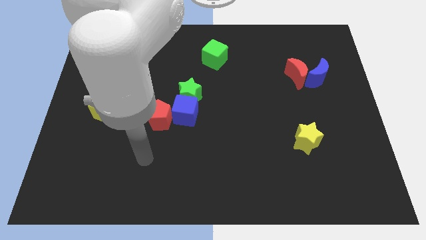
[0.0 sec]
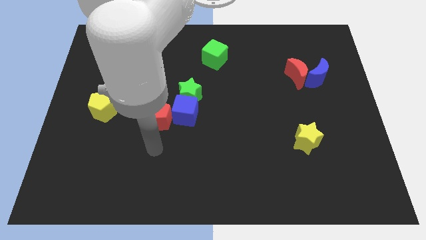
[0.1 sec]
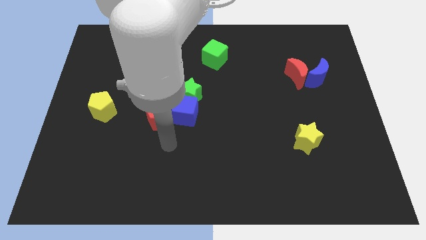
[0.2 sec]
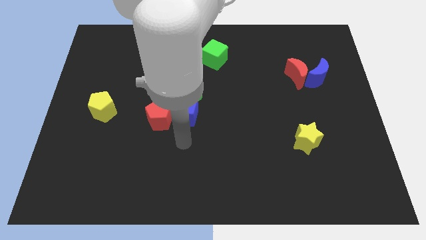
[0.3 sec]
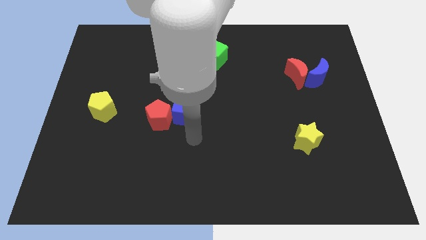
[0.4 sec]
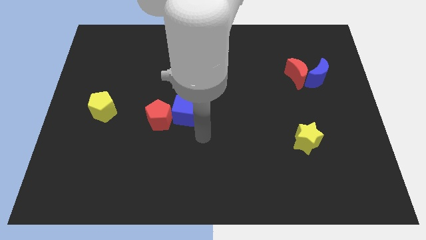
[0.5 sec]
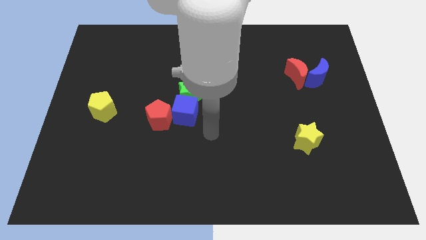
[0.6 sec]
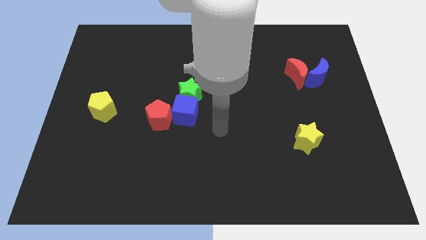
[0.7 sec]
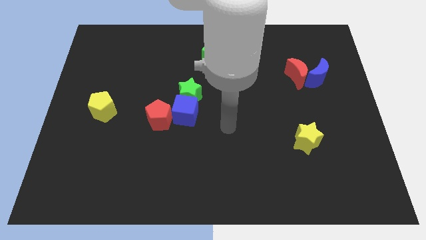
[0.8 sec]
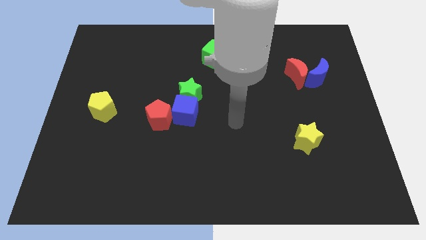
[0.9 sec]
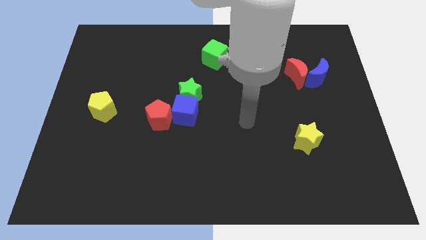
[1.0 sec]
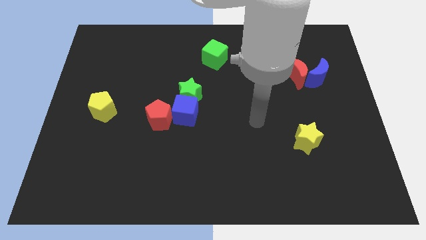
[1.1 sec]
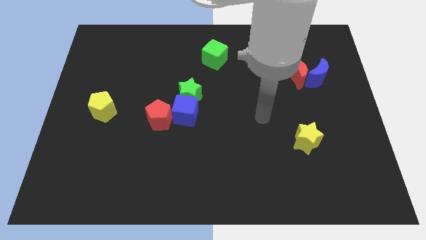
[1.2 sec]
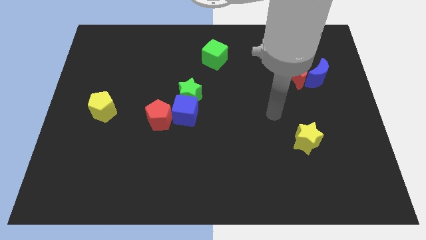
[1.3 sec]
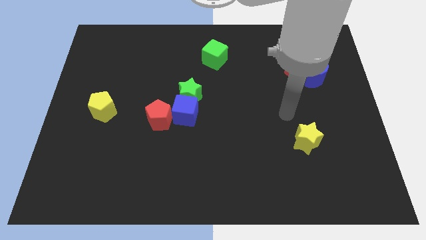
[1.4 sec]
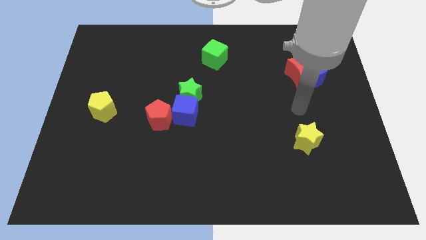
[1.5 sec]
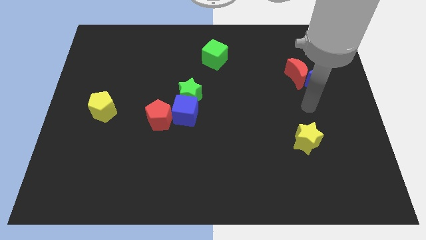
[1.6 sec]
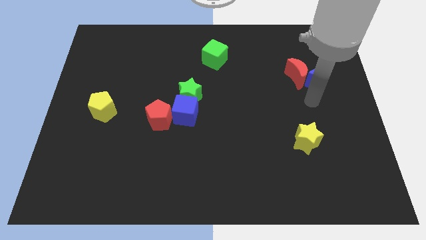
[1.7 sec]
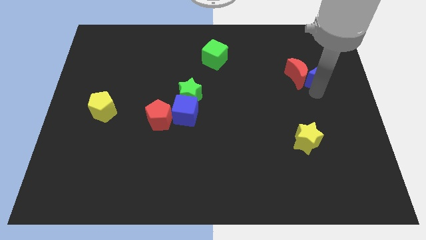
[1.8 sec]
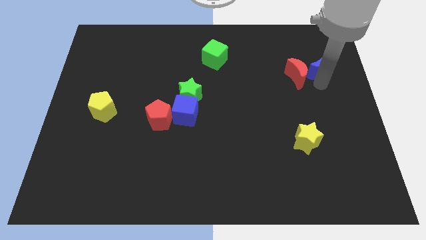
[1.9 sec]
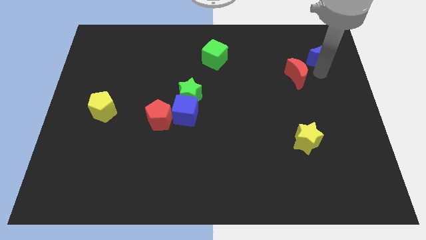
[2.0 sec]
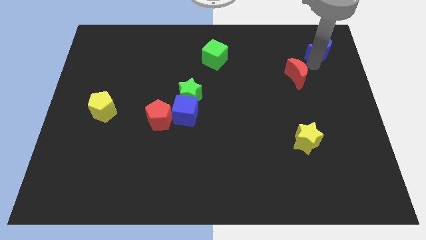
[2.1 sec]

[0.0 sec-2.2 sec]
separate the red moon from the blue moon

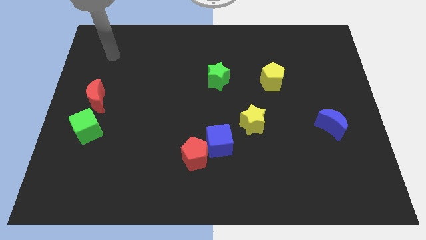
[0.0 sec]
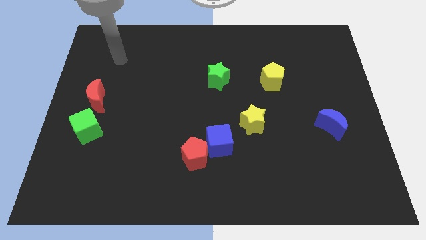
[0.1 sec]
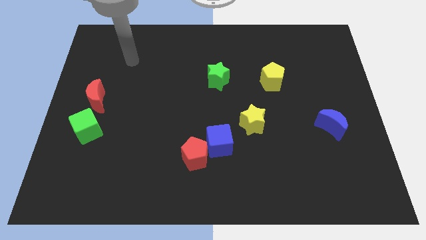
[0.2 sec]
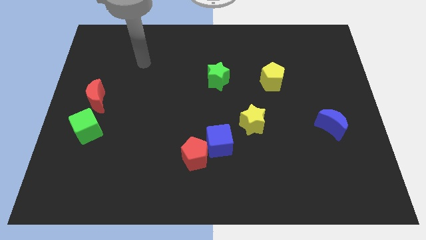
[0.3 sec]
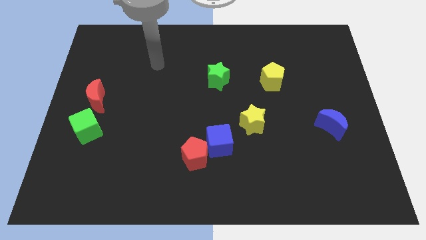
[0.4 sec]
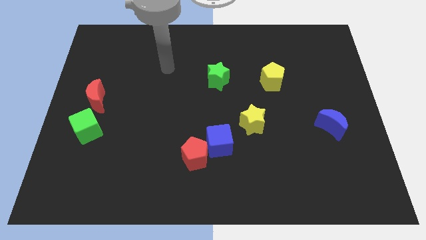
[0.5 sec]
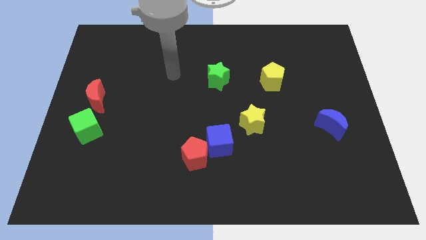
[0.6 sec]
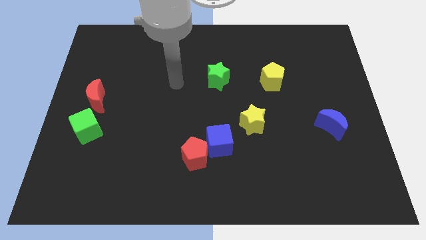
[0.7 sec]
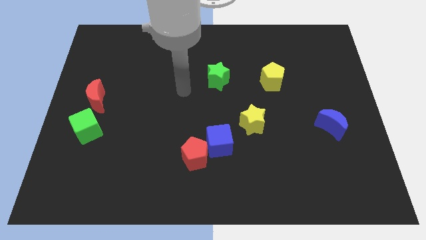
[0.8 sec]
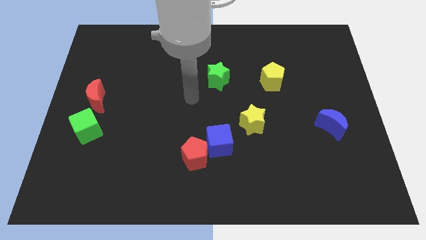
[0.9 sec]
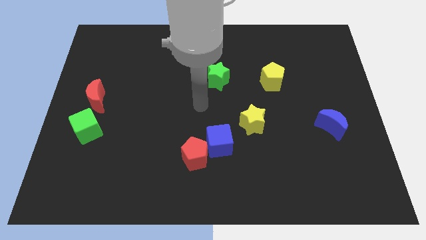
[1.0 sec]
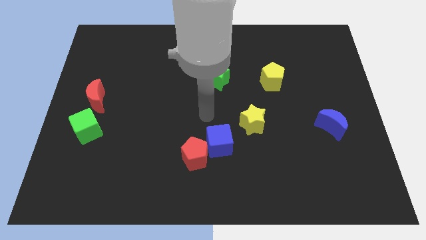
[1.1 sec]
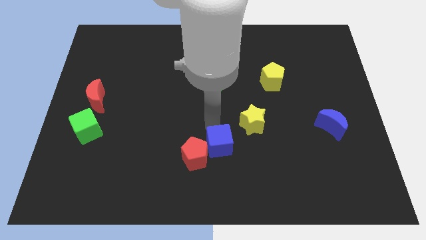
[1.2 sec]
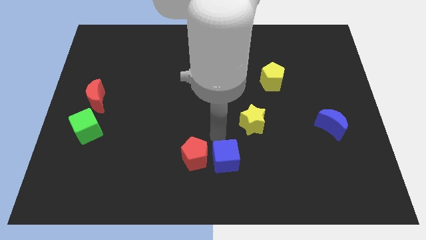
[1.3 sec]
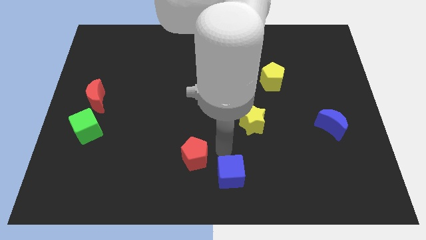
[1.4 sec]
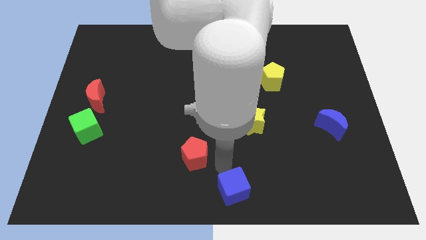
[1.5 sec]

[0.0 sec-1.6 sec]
move the red pentagon away from the blue cube

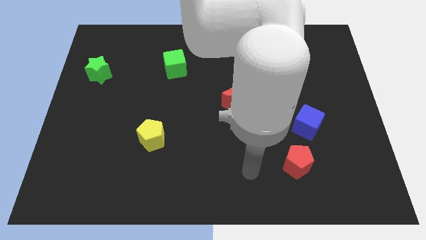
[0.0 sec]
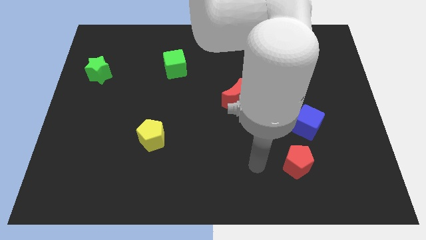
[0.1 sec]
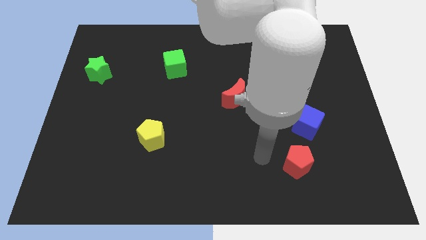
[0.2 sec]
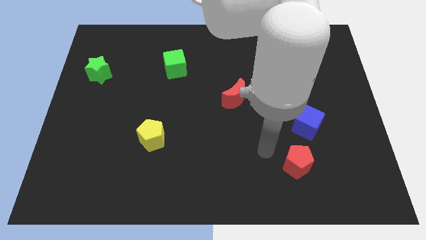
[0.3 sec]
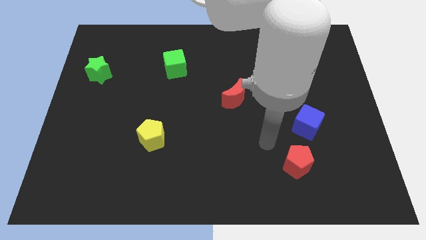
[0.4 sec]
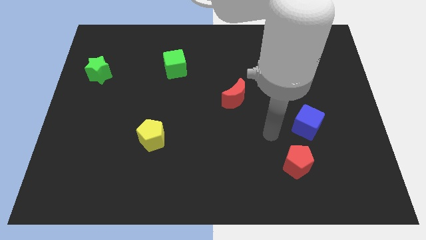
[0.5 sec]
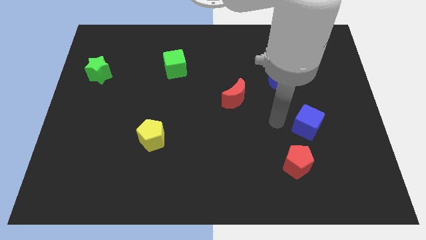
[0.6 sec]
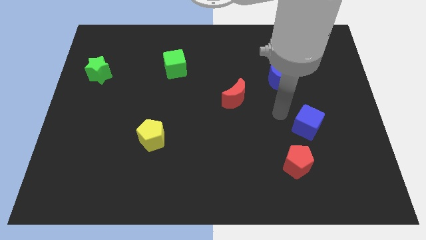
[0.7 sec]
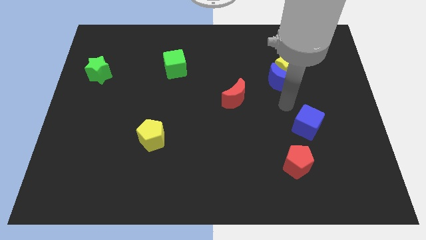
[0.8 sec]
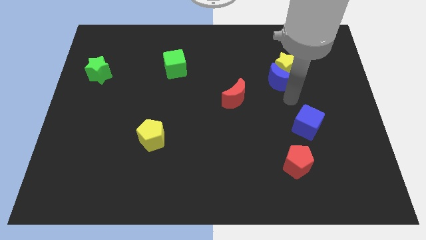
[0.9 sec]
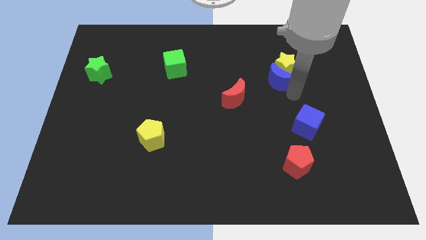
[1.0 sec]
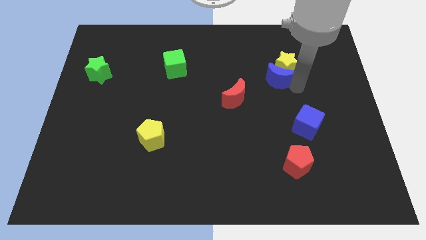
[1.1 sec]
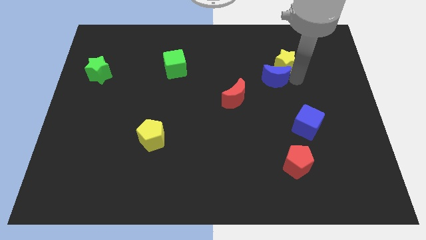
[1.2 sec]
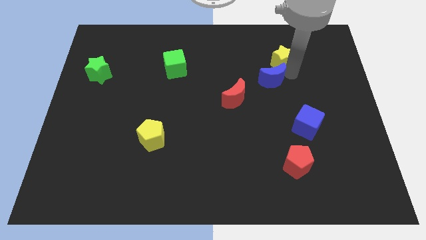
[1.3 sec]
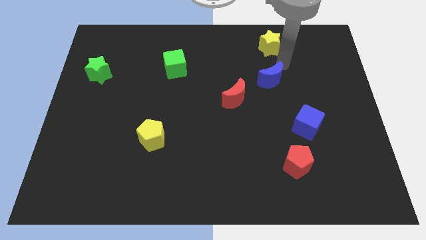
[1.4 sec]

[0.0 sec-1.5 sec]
pull the blue moon apart from the yellow star

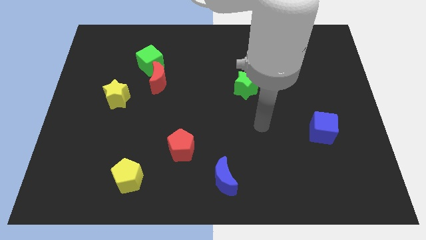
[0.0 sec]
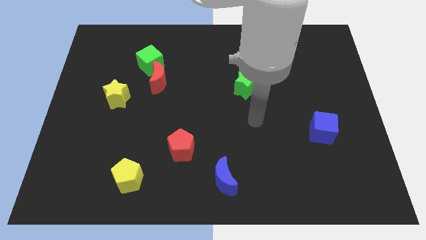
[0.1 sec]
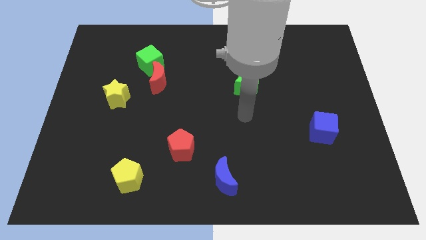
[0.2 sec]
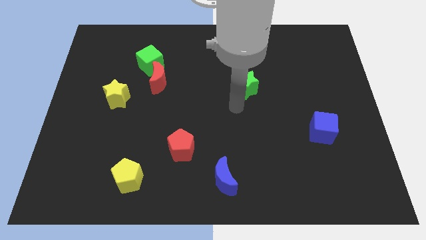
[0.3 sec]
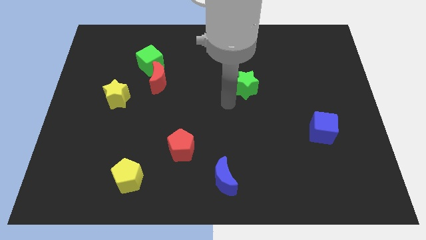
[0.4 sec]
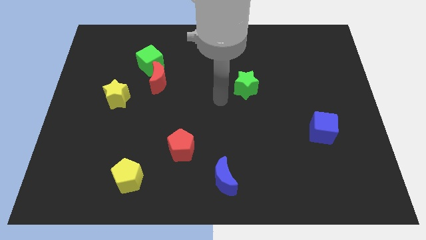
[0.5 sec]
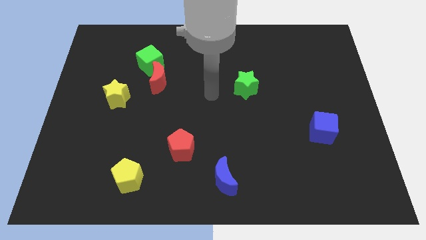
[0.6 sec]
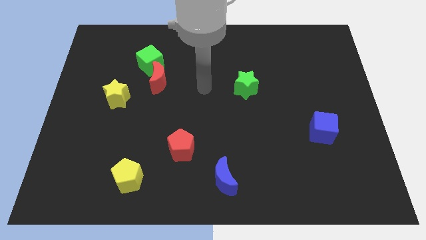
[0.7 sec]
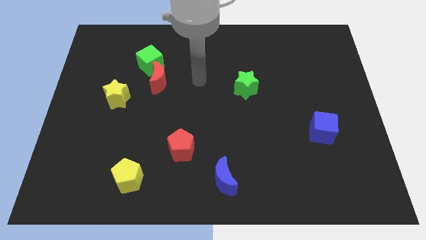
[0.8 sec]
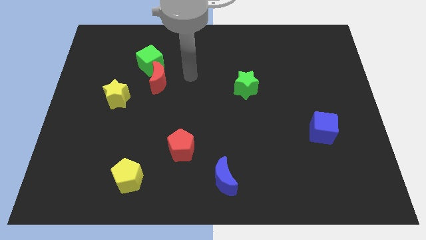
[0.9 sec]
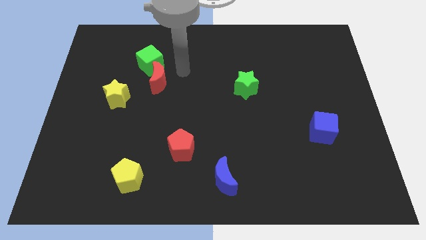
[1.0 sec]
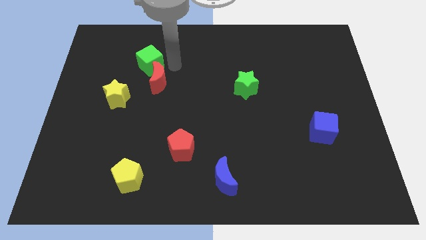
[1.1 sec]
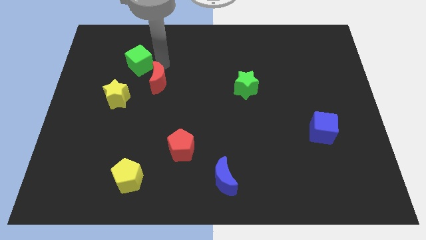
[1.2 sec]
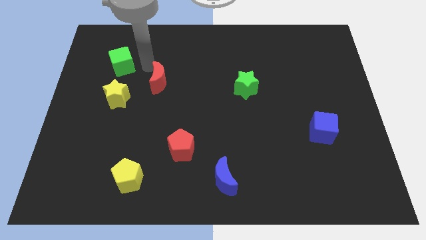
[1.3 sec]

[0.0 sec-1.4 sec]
pull the red moon apart from the green cube

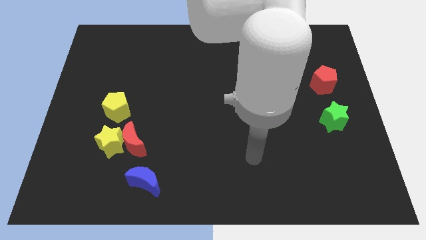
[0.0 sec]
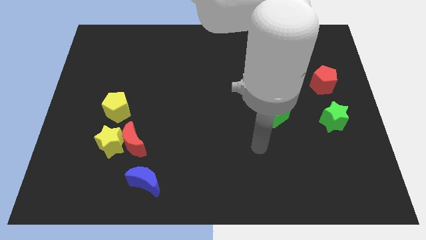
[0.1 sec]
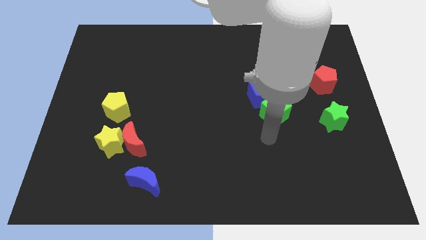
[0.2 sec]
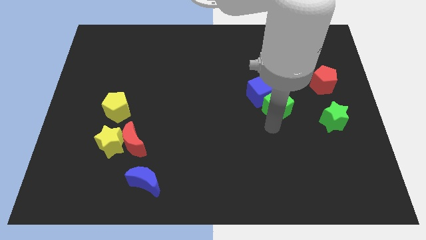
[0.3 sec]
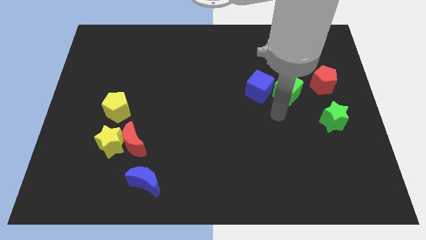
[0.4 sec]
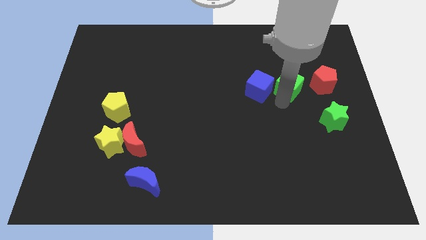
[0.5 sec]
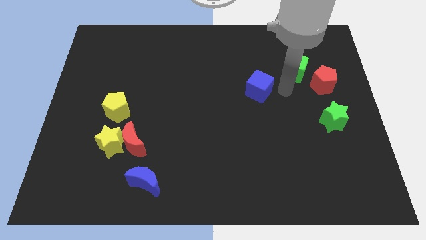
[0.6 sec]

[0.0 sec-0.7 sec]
move the blue cube away from the green cube

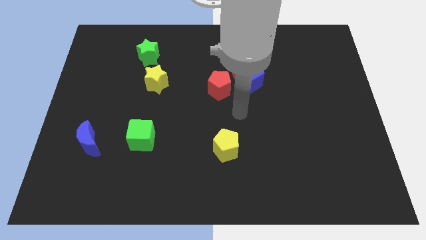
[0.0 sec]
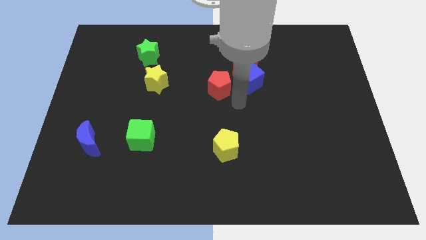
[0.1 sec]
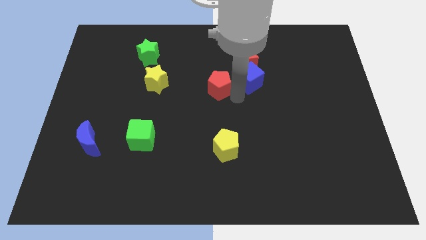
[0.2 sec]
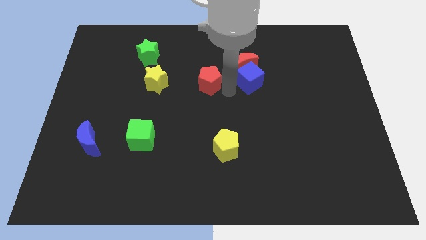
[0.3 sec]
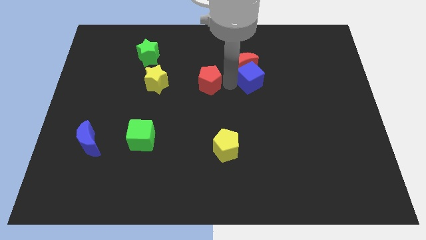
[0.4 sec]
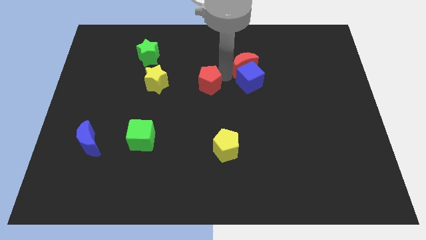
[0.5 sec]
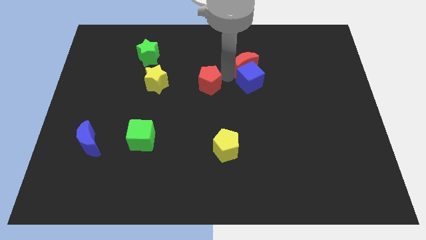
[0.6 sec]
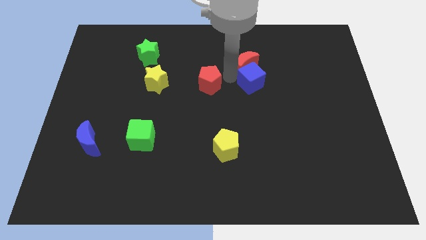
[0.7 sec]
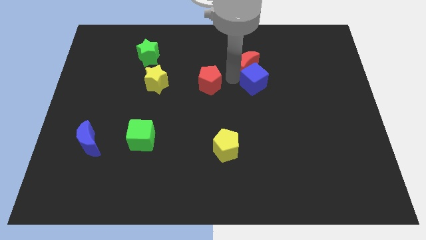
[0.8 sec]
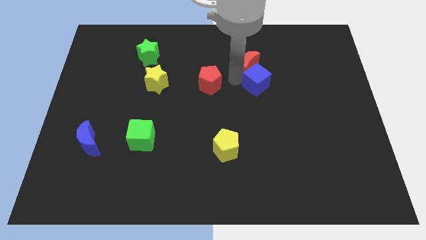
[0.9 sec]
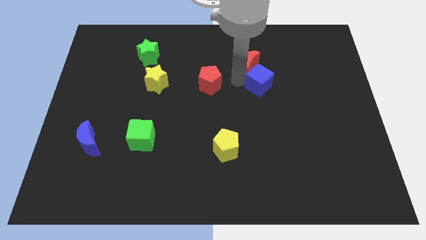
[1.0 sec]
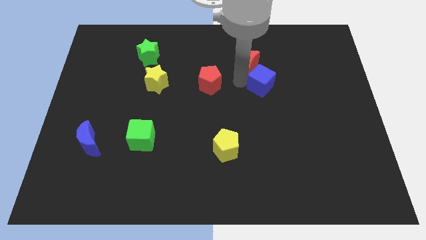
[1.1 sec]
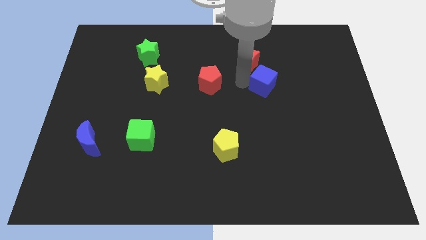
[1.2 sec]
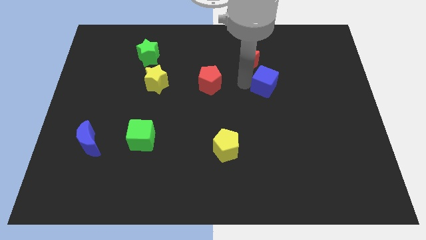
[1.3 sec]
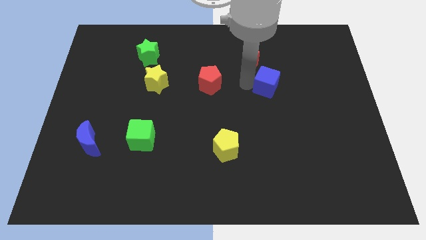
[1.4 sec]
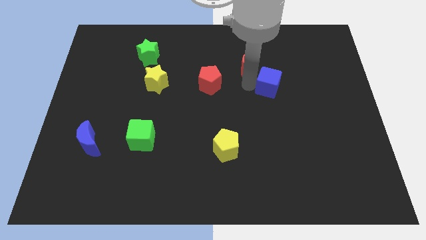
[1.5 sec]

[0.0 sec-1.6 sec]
pull the blue cube apart from the red moon and red pentagon

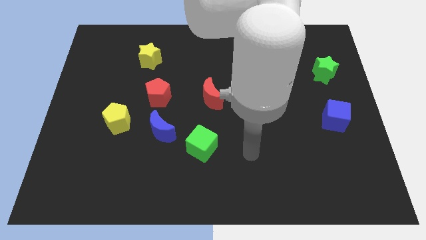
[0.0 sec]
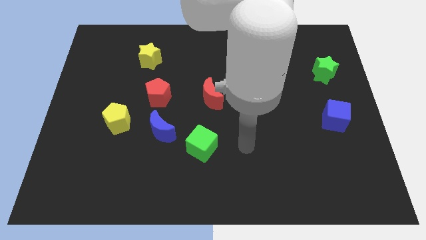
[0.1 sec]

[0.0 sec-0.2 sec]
move the green cube away from the blue moon
